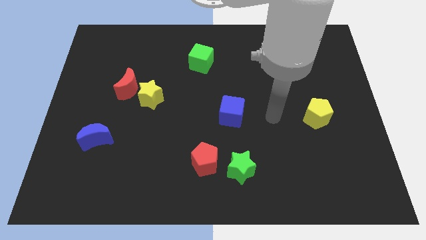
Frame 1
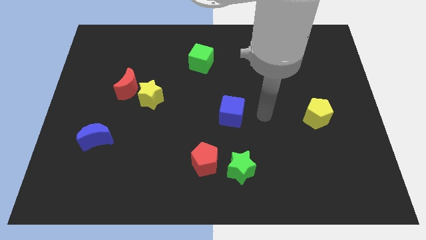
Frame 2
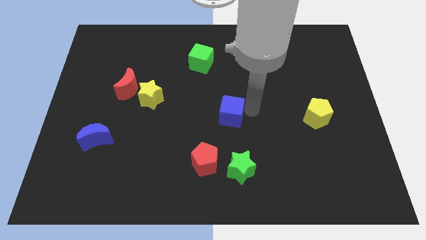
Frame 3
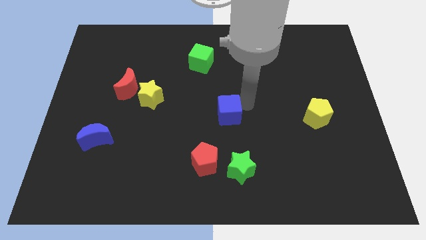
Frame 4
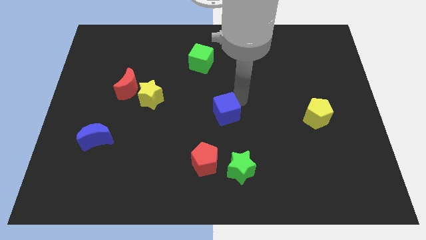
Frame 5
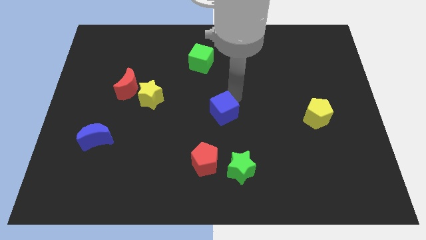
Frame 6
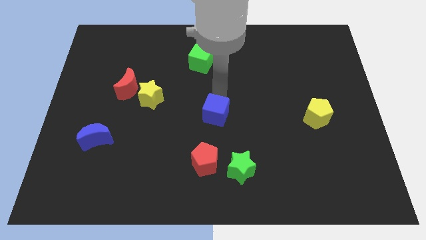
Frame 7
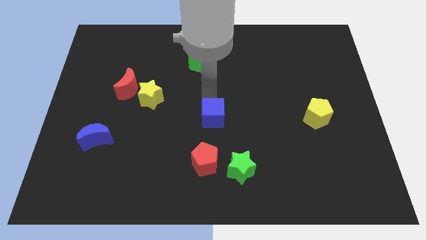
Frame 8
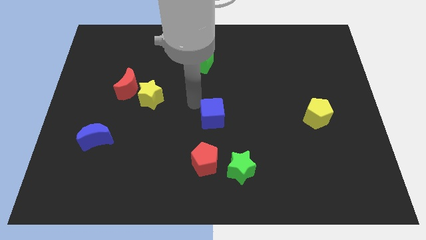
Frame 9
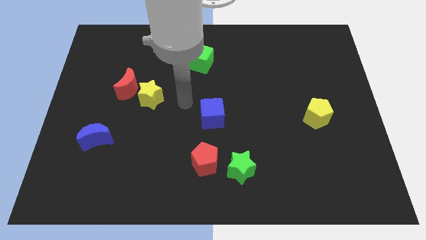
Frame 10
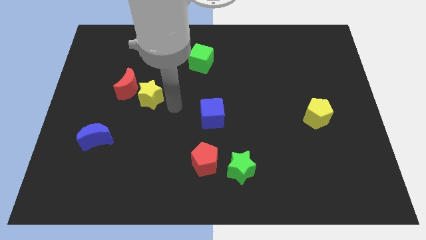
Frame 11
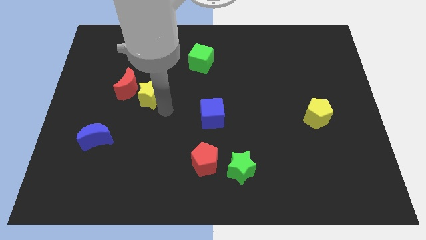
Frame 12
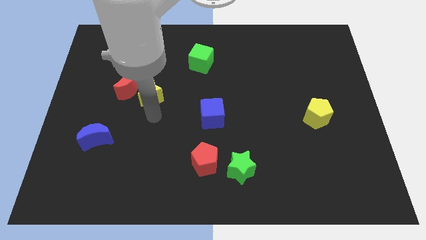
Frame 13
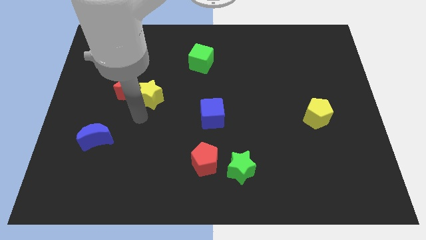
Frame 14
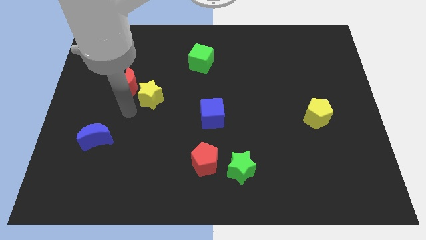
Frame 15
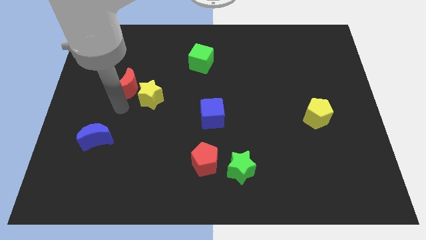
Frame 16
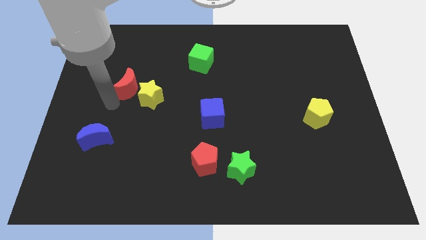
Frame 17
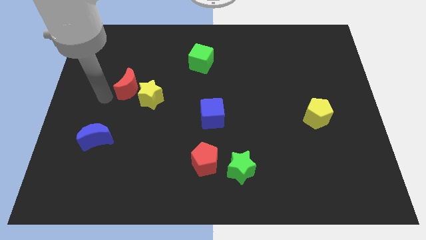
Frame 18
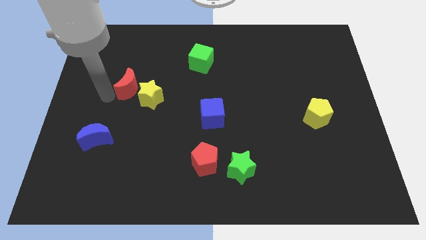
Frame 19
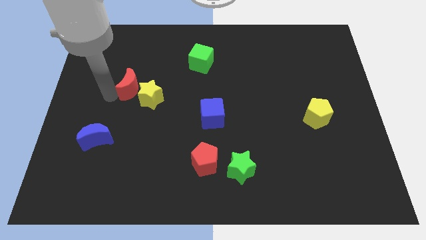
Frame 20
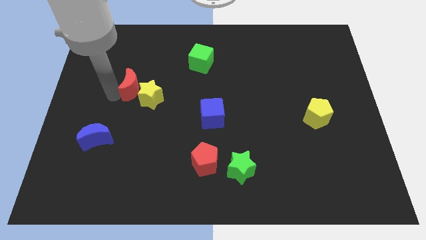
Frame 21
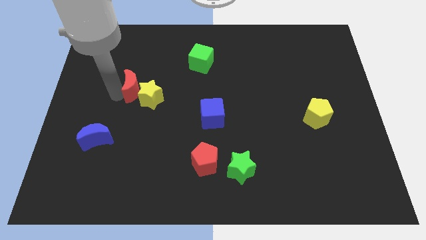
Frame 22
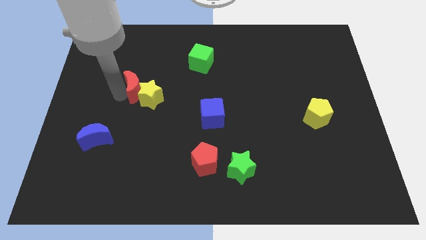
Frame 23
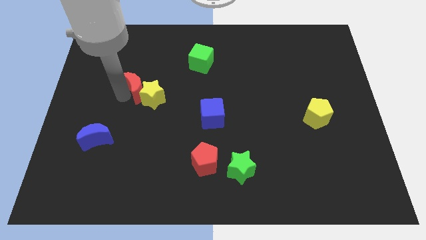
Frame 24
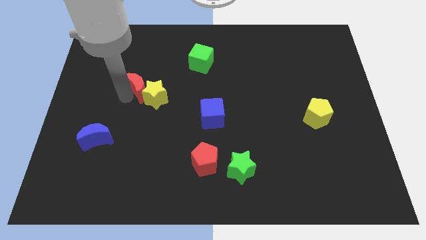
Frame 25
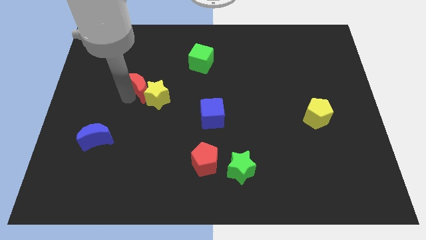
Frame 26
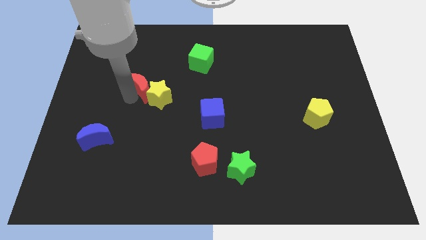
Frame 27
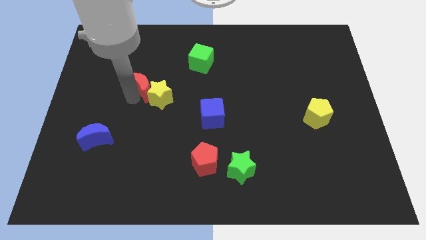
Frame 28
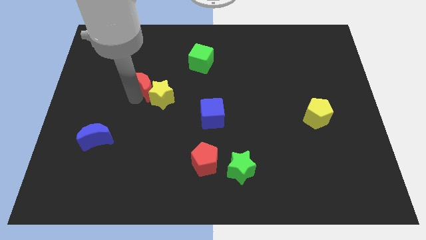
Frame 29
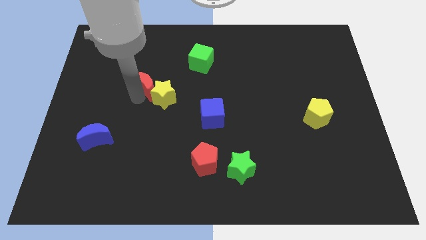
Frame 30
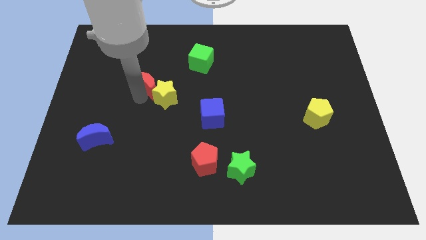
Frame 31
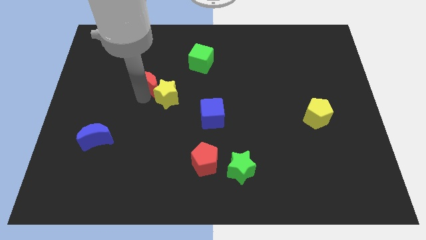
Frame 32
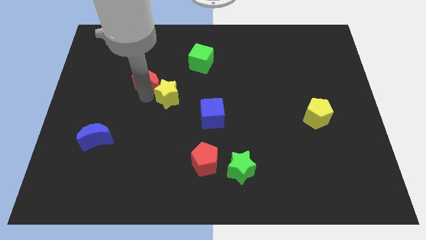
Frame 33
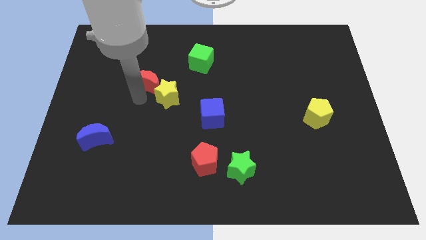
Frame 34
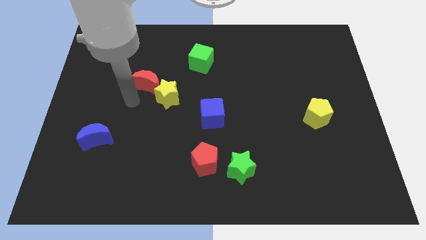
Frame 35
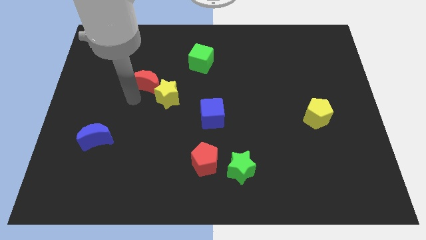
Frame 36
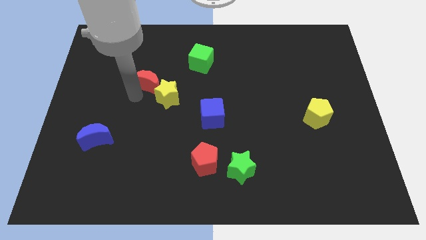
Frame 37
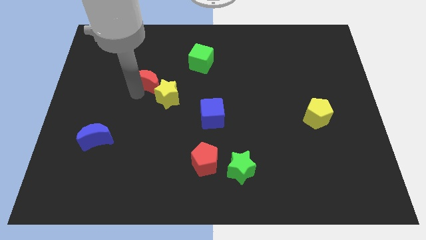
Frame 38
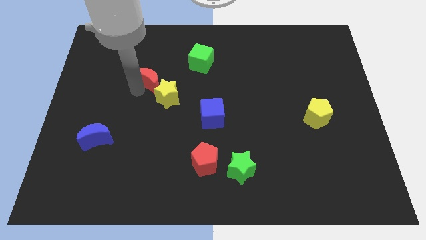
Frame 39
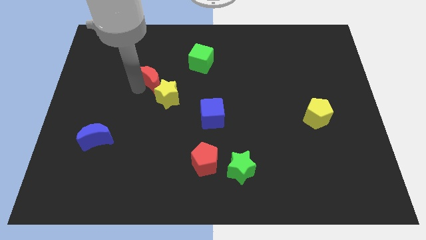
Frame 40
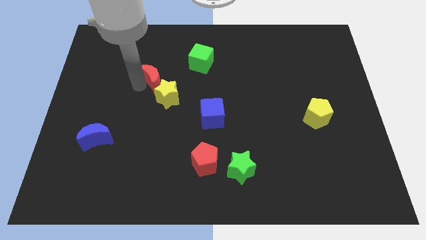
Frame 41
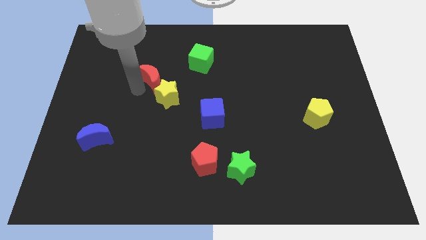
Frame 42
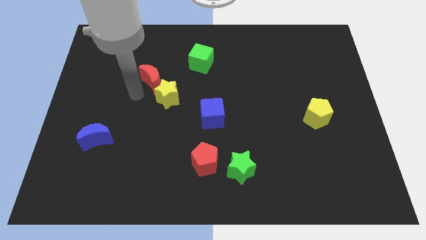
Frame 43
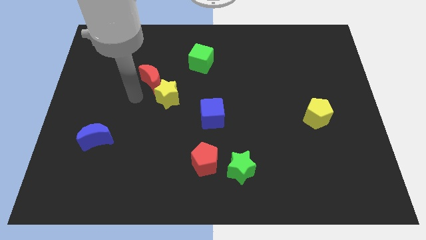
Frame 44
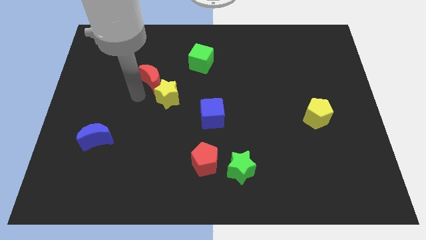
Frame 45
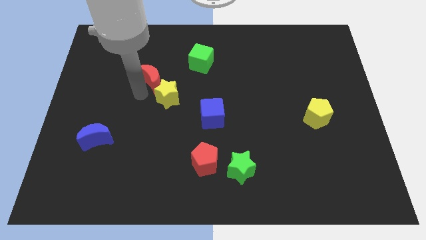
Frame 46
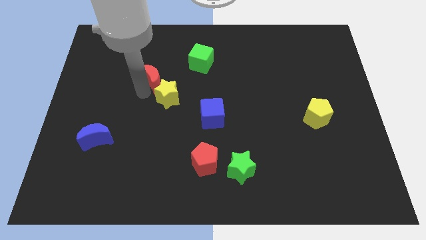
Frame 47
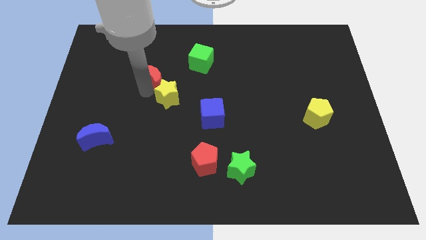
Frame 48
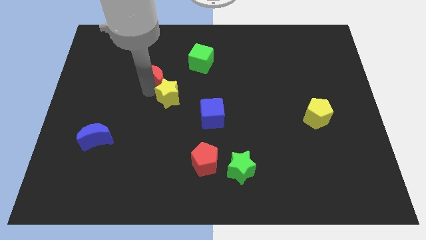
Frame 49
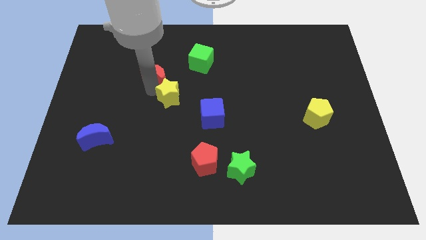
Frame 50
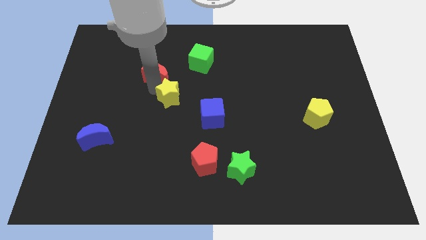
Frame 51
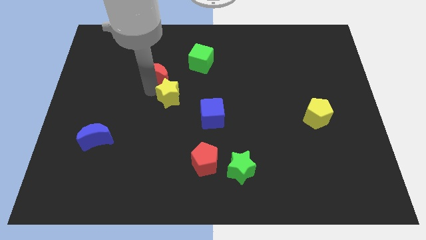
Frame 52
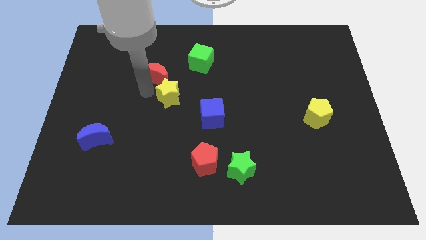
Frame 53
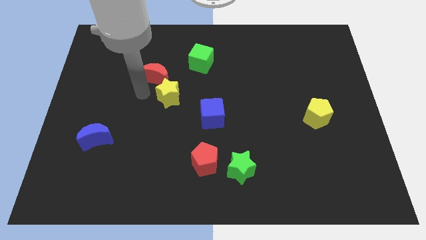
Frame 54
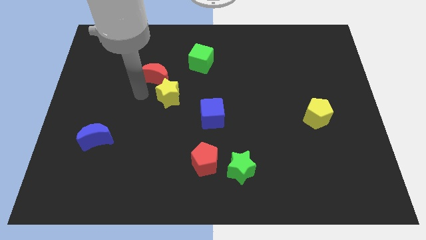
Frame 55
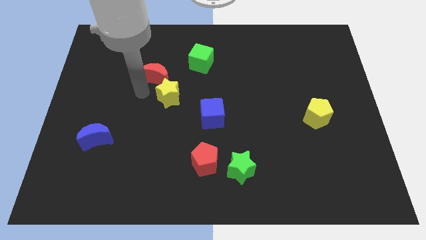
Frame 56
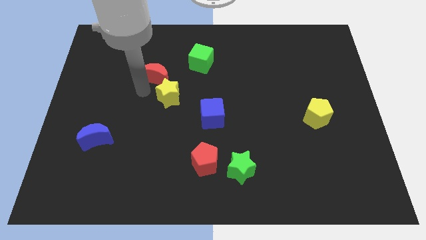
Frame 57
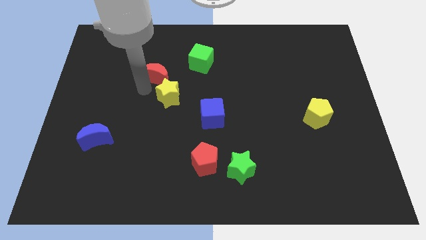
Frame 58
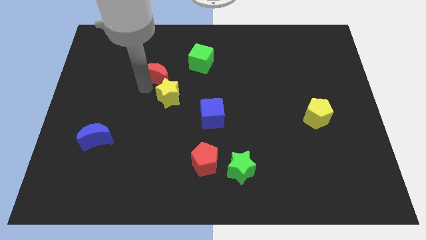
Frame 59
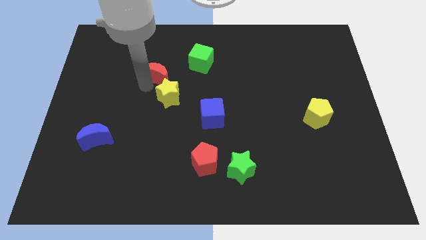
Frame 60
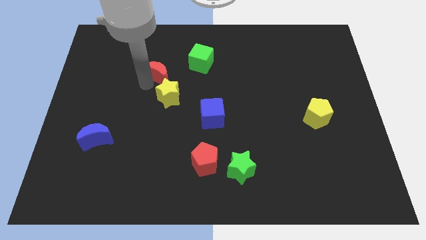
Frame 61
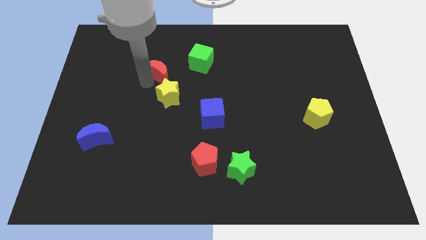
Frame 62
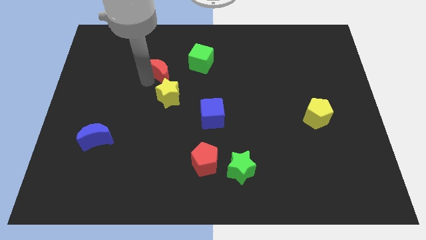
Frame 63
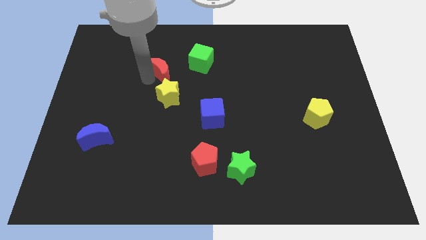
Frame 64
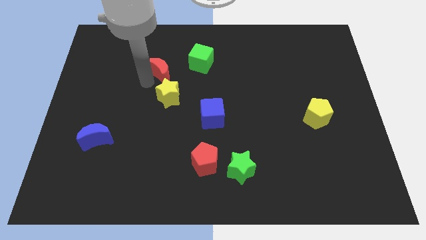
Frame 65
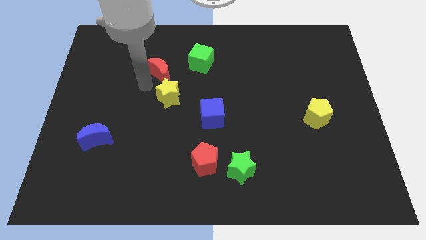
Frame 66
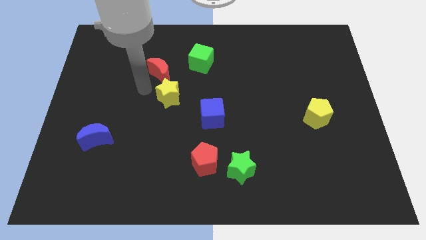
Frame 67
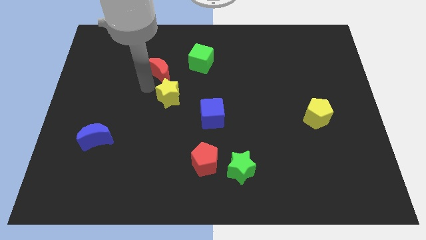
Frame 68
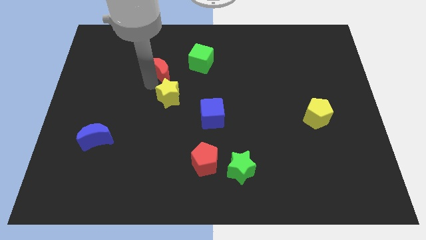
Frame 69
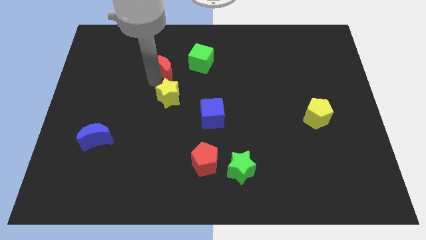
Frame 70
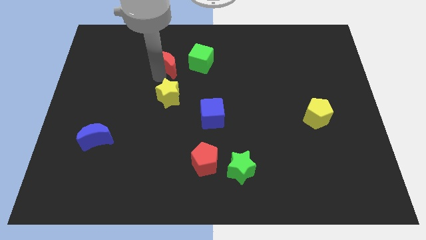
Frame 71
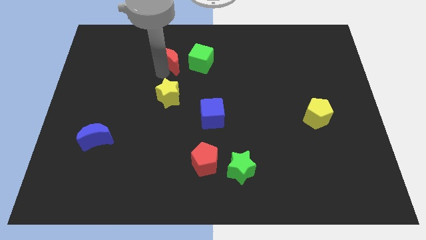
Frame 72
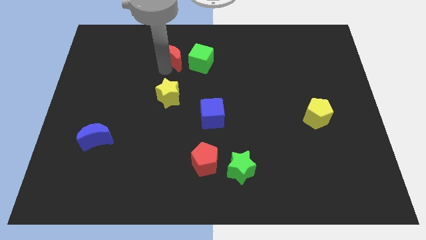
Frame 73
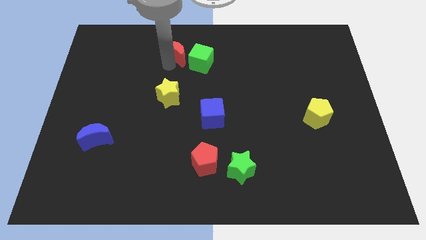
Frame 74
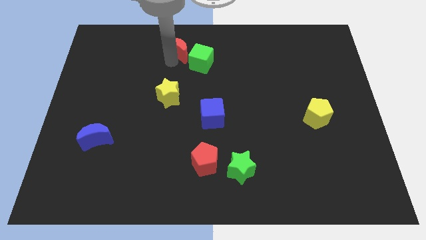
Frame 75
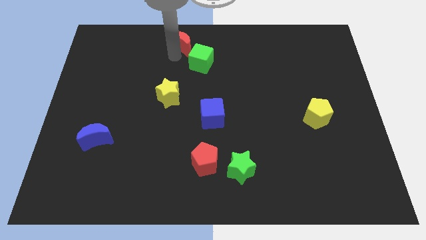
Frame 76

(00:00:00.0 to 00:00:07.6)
put the red moon to the top side
